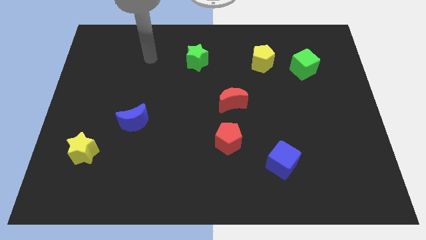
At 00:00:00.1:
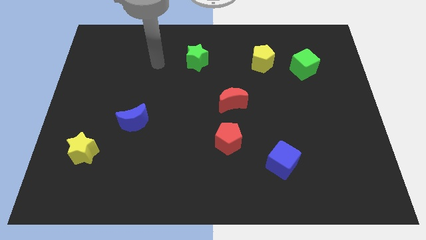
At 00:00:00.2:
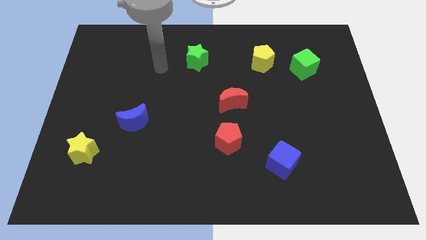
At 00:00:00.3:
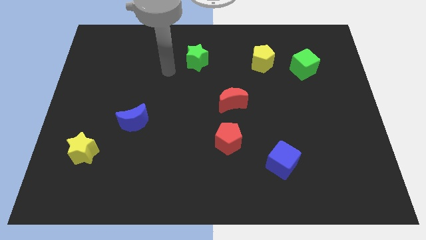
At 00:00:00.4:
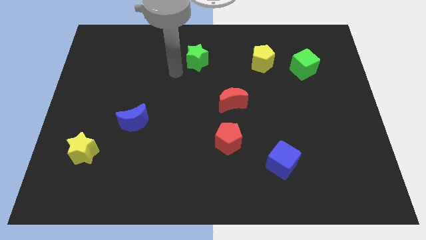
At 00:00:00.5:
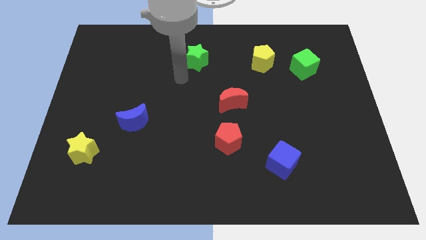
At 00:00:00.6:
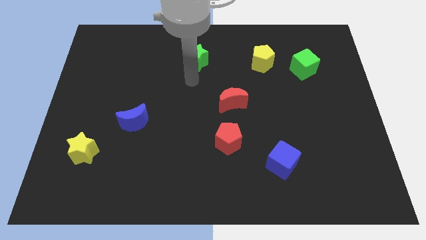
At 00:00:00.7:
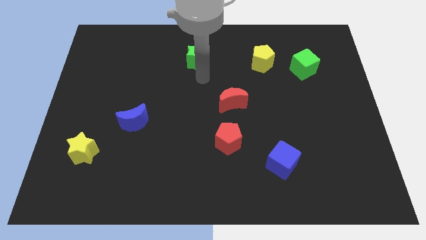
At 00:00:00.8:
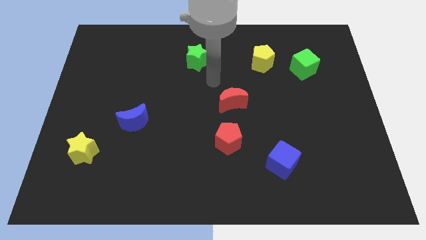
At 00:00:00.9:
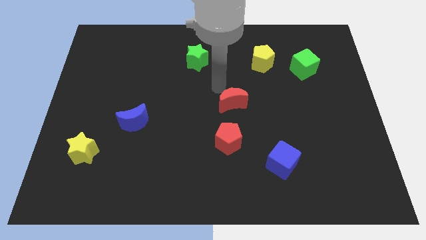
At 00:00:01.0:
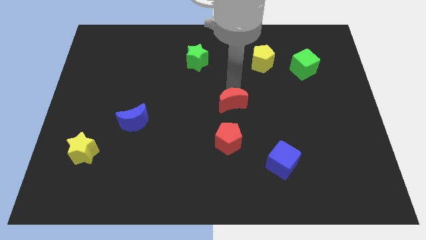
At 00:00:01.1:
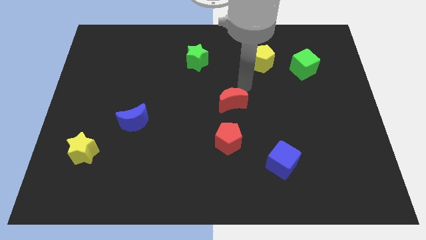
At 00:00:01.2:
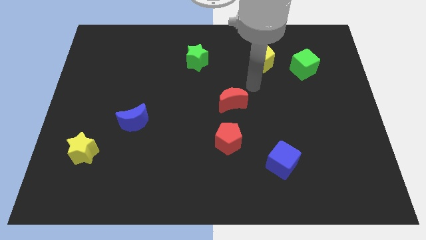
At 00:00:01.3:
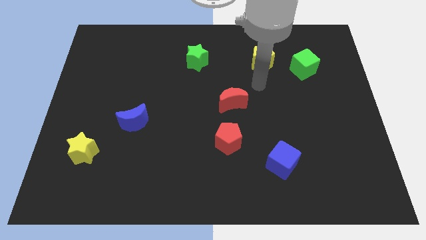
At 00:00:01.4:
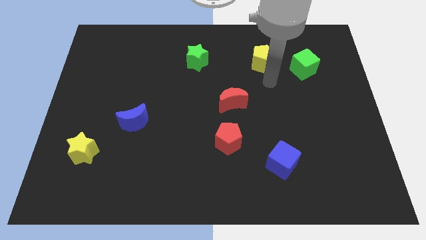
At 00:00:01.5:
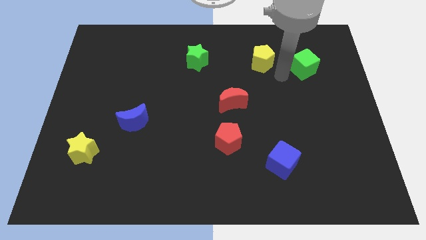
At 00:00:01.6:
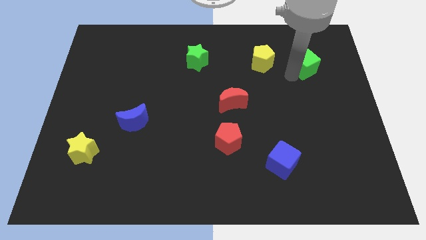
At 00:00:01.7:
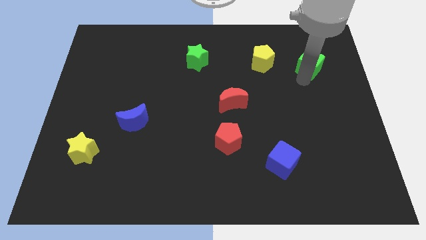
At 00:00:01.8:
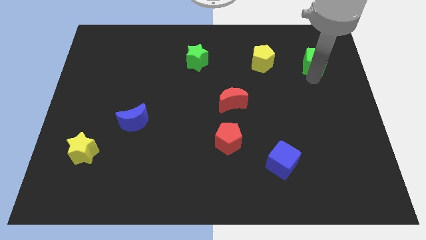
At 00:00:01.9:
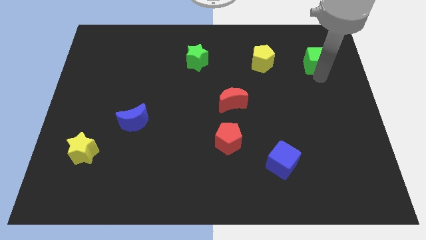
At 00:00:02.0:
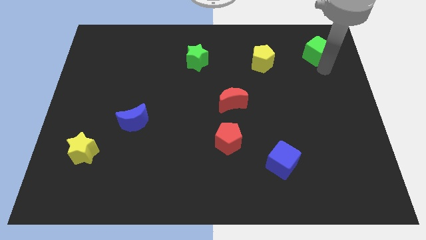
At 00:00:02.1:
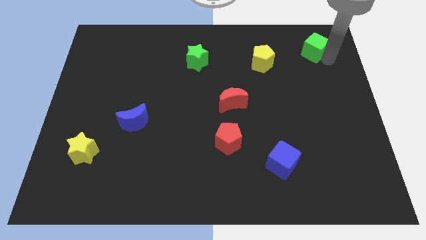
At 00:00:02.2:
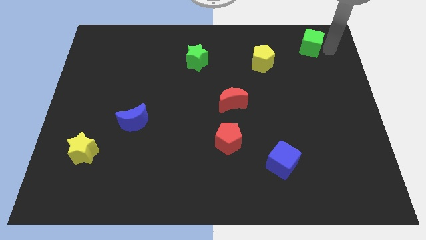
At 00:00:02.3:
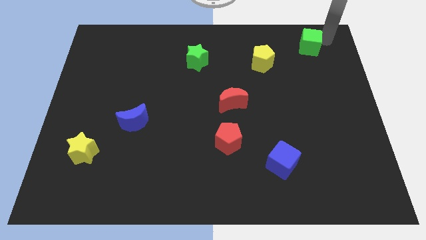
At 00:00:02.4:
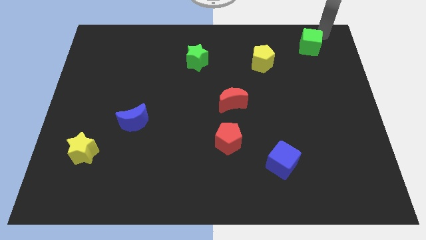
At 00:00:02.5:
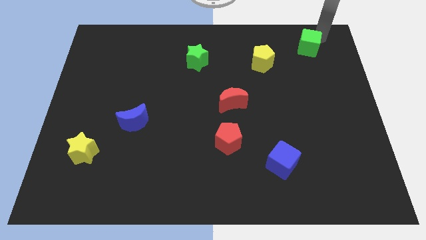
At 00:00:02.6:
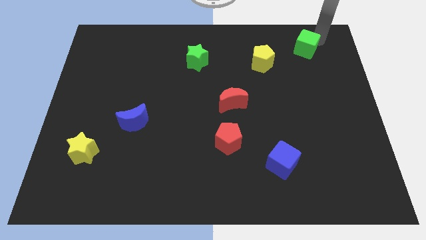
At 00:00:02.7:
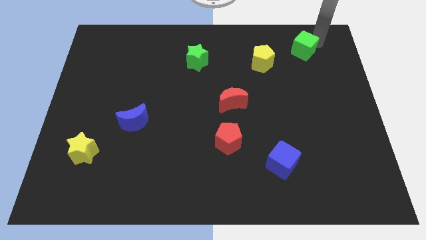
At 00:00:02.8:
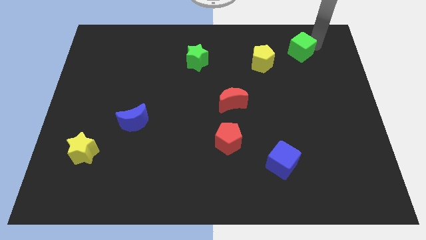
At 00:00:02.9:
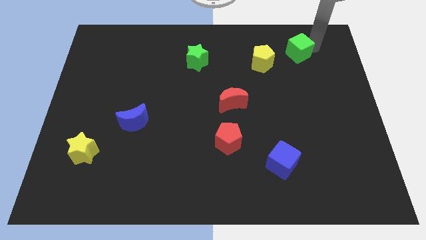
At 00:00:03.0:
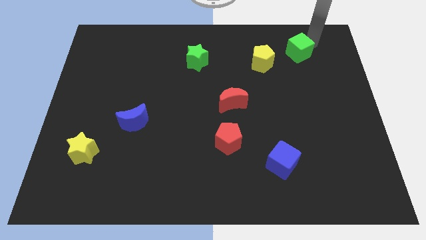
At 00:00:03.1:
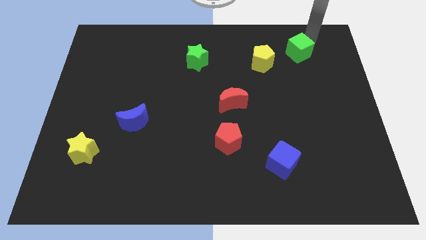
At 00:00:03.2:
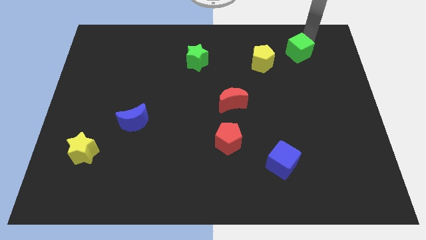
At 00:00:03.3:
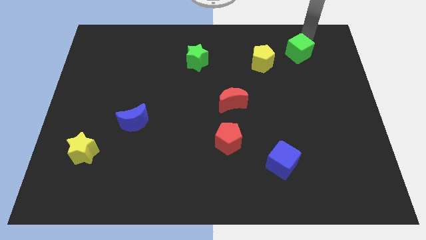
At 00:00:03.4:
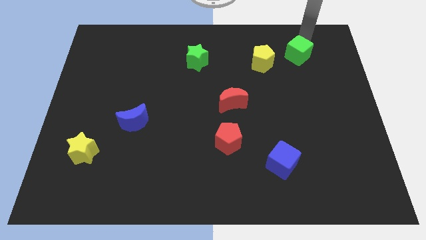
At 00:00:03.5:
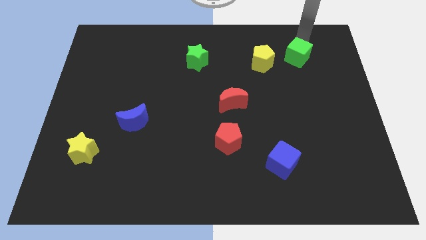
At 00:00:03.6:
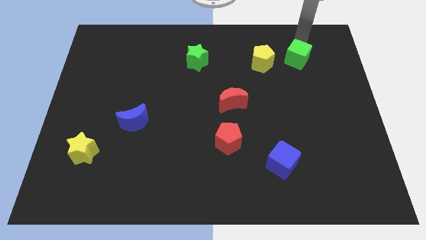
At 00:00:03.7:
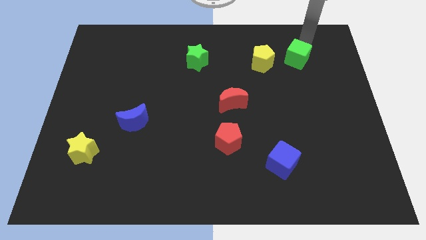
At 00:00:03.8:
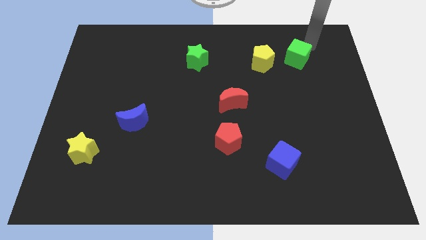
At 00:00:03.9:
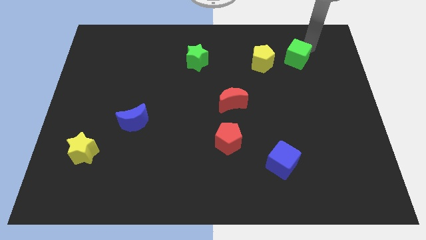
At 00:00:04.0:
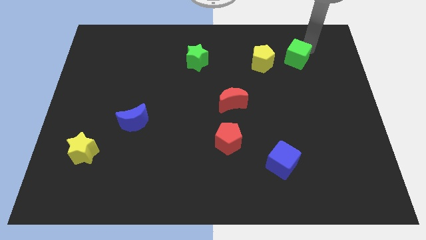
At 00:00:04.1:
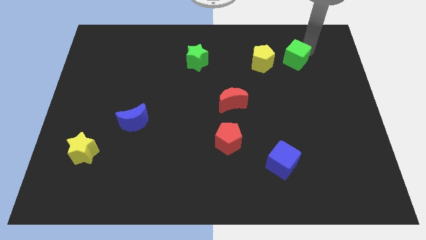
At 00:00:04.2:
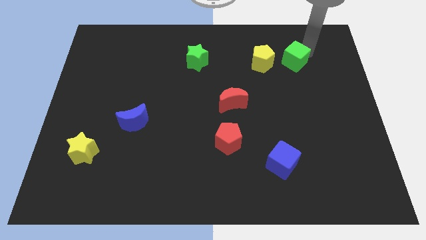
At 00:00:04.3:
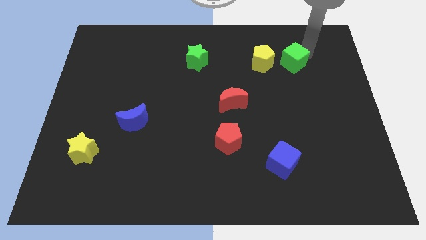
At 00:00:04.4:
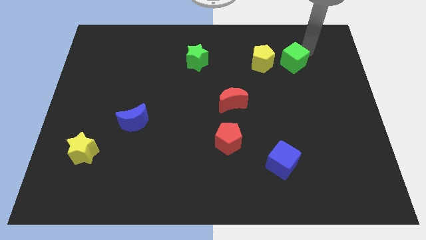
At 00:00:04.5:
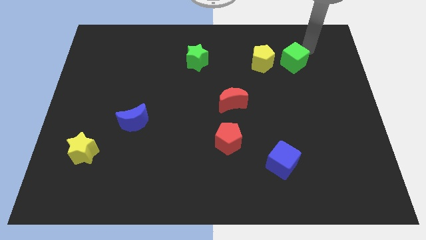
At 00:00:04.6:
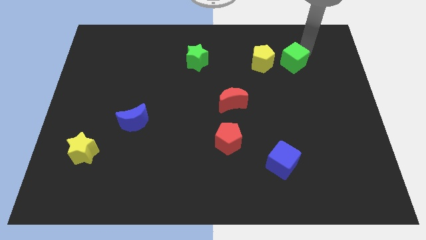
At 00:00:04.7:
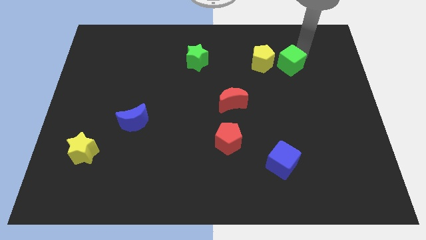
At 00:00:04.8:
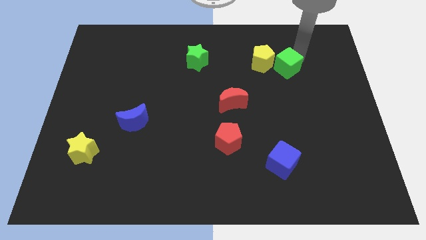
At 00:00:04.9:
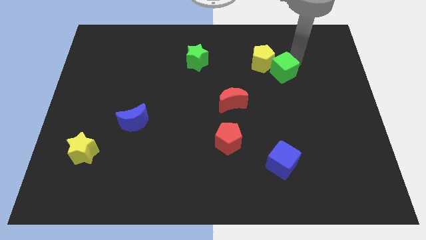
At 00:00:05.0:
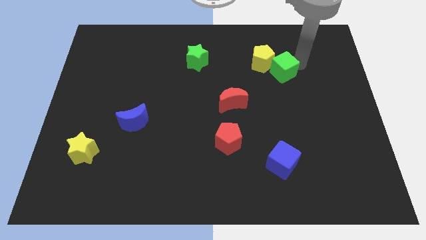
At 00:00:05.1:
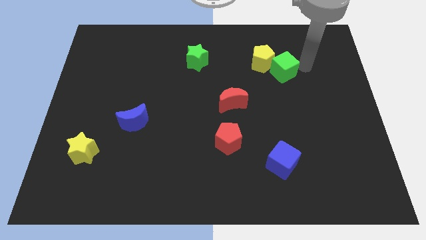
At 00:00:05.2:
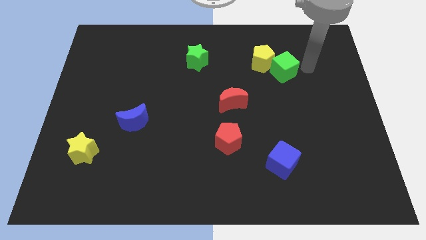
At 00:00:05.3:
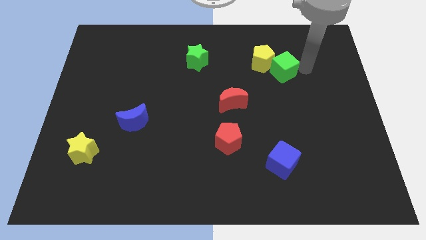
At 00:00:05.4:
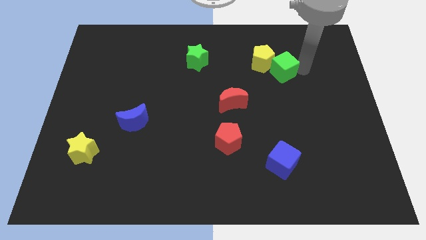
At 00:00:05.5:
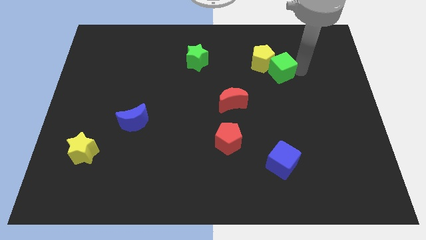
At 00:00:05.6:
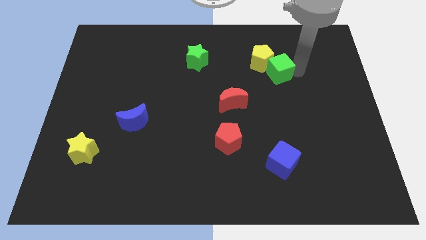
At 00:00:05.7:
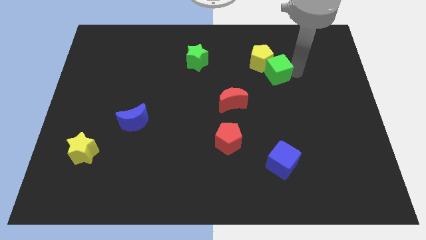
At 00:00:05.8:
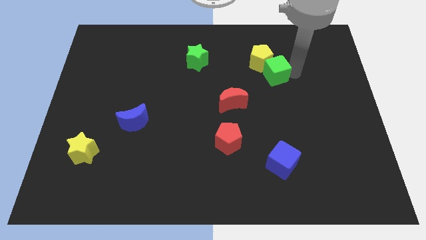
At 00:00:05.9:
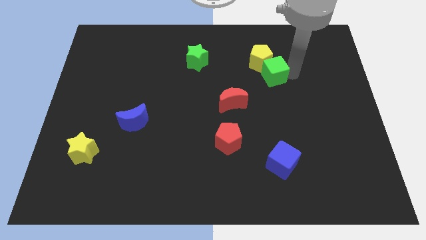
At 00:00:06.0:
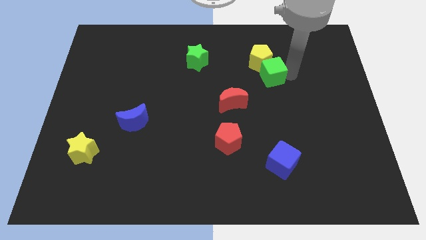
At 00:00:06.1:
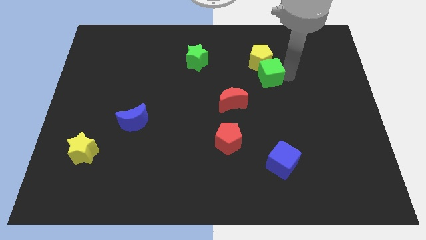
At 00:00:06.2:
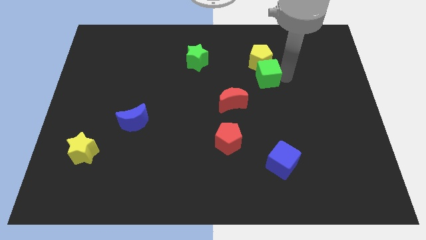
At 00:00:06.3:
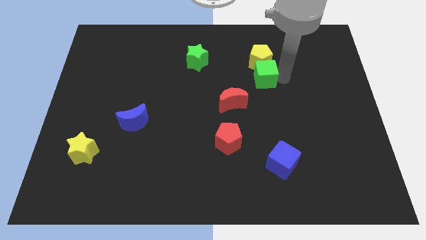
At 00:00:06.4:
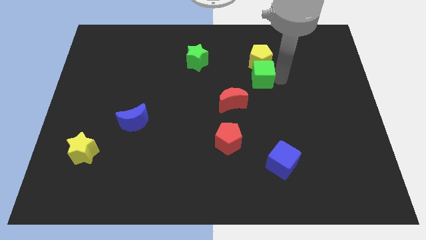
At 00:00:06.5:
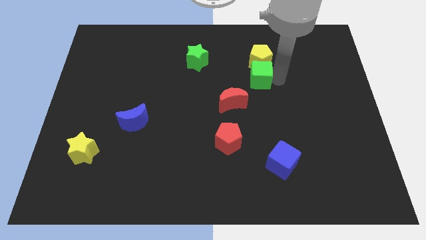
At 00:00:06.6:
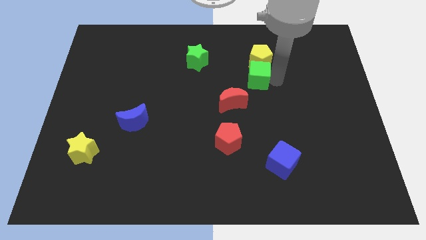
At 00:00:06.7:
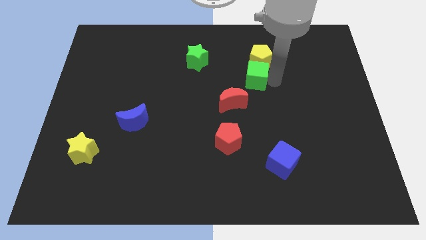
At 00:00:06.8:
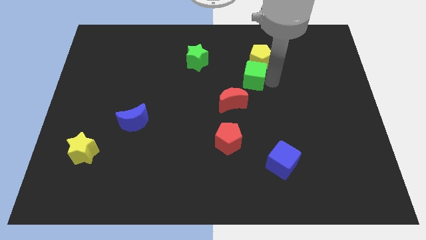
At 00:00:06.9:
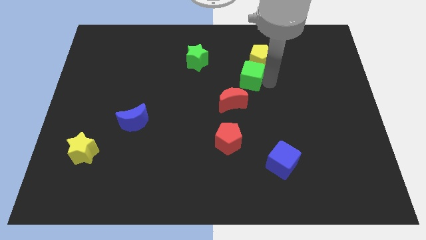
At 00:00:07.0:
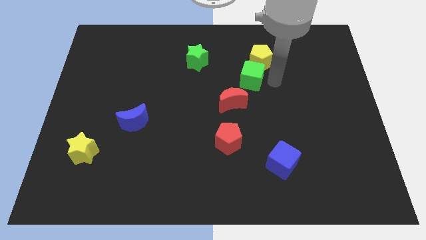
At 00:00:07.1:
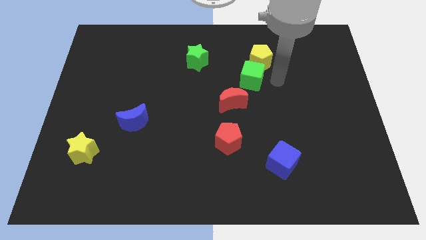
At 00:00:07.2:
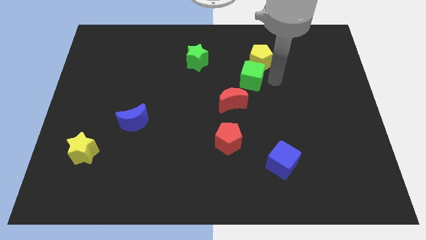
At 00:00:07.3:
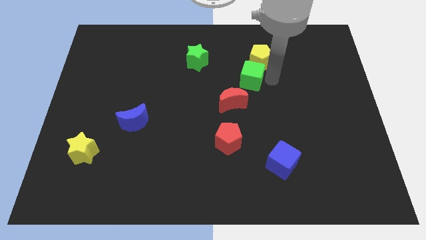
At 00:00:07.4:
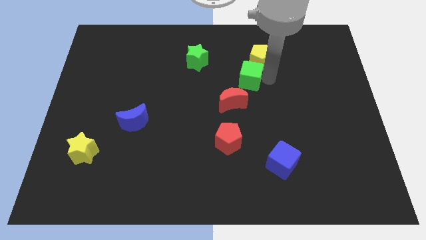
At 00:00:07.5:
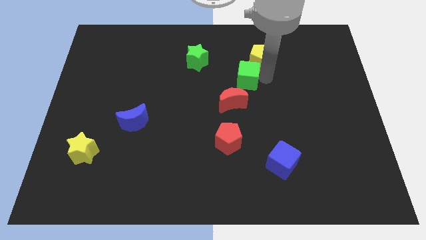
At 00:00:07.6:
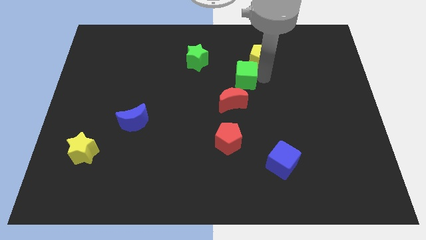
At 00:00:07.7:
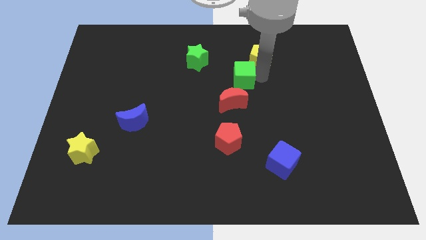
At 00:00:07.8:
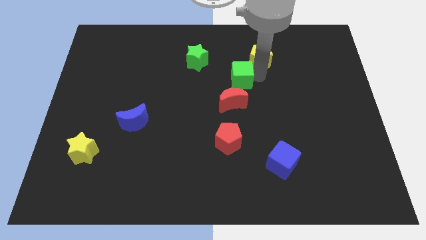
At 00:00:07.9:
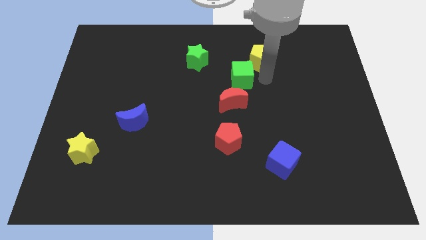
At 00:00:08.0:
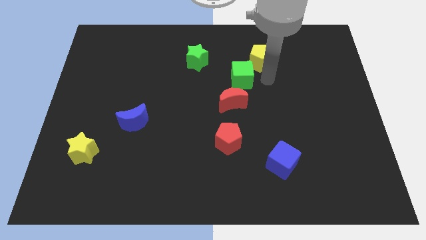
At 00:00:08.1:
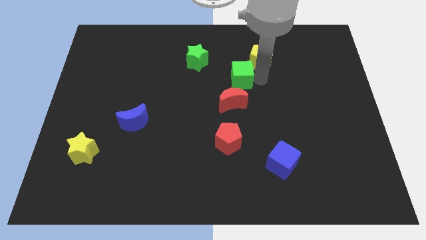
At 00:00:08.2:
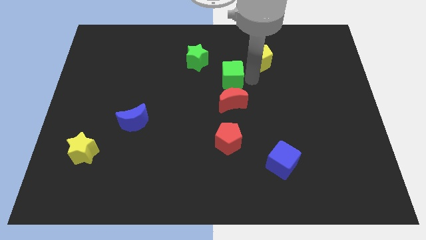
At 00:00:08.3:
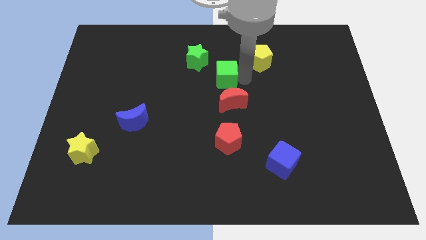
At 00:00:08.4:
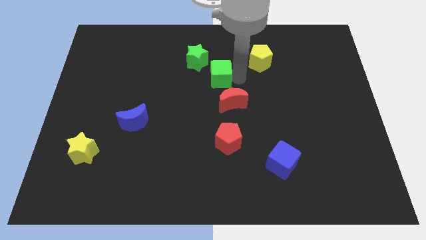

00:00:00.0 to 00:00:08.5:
slide the green cube left
